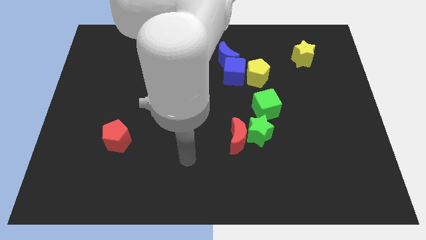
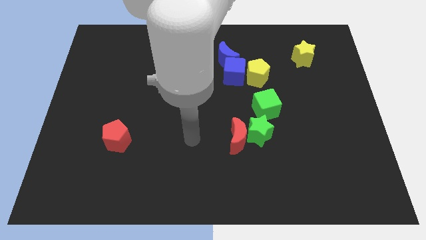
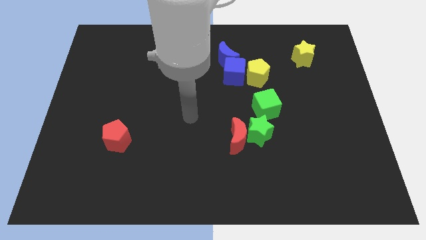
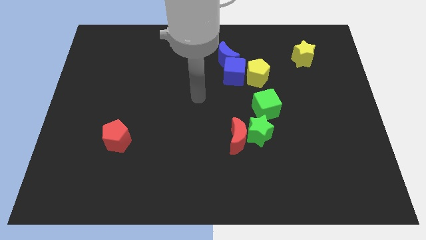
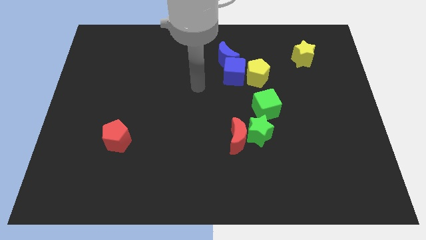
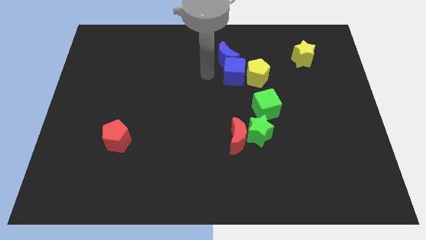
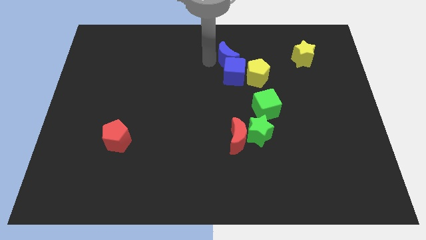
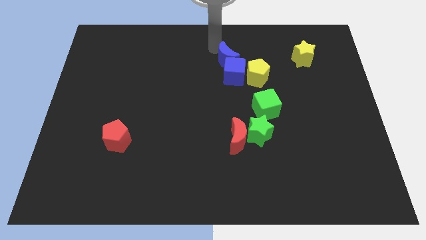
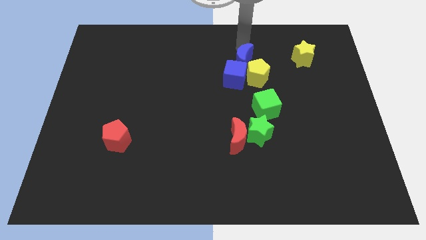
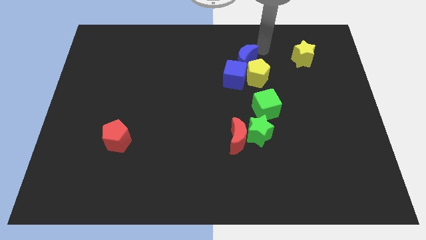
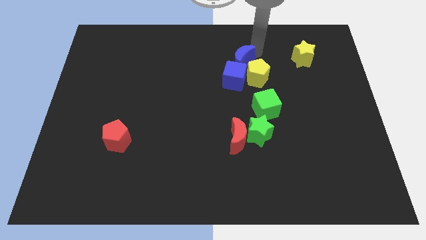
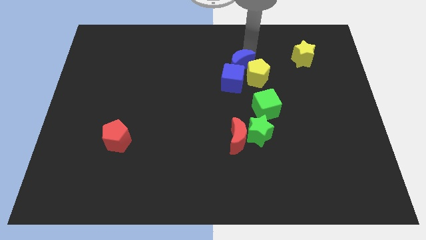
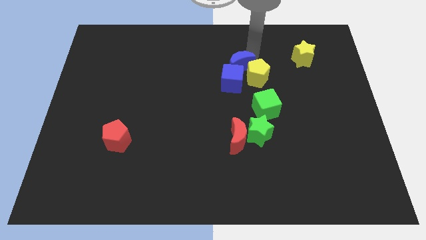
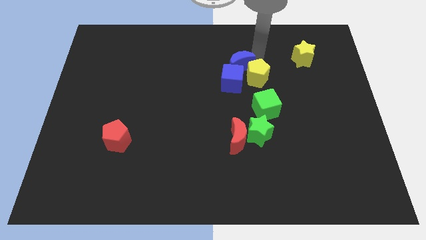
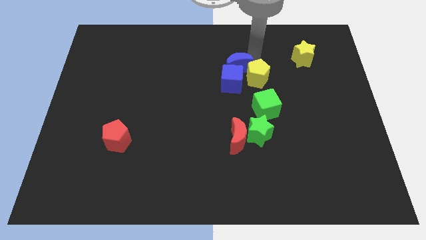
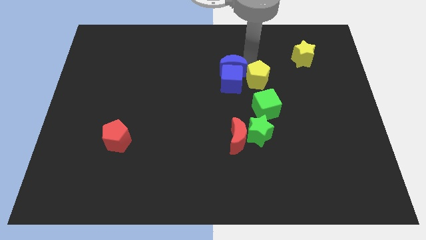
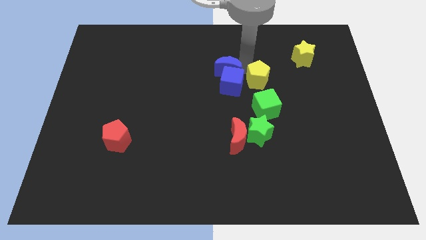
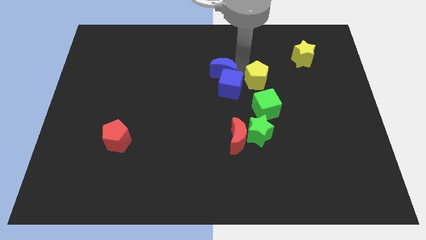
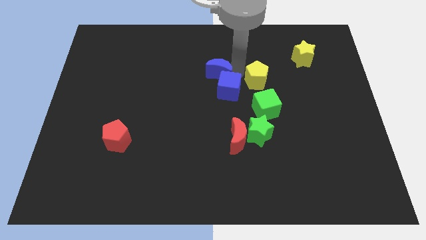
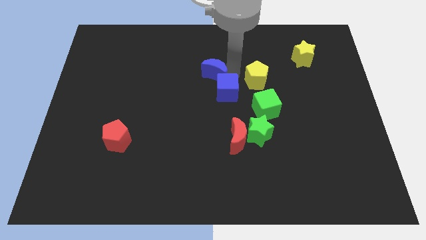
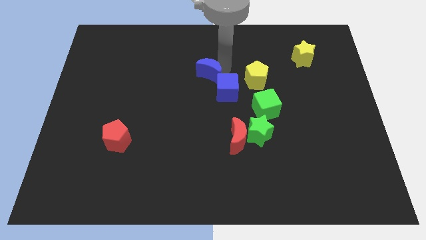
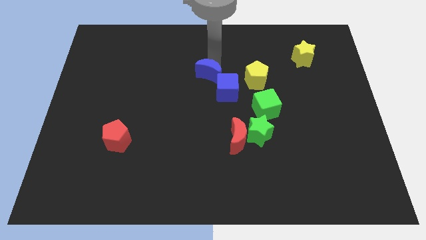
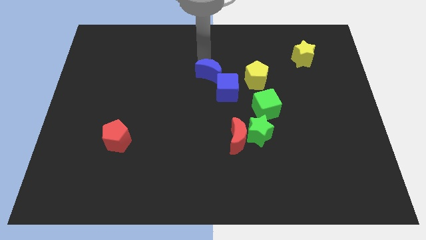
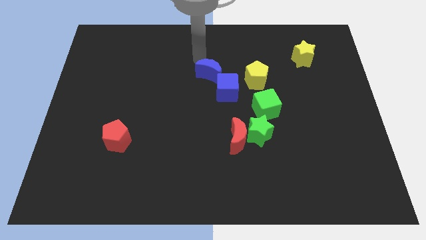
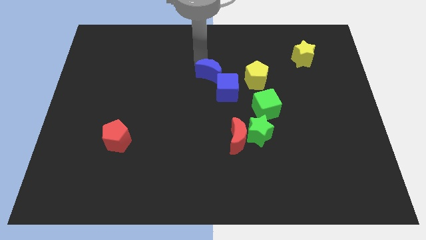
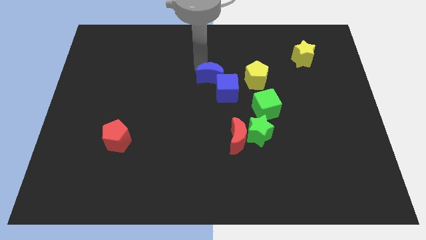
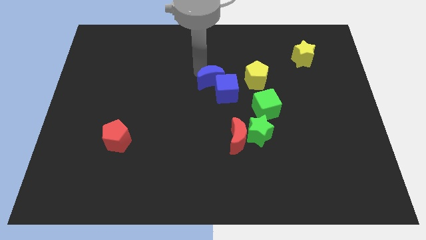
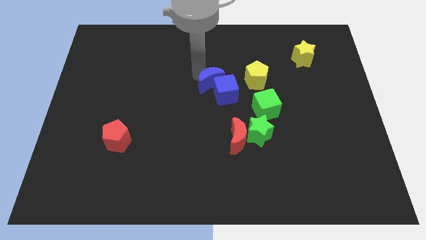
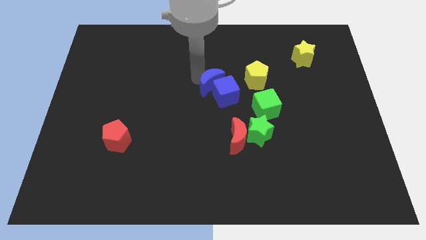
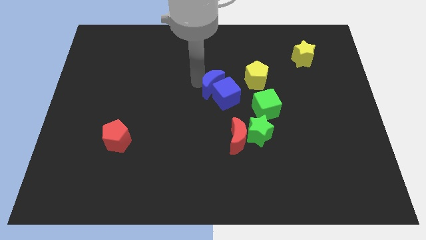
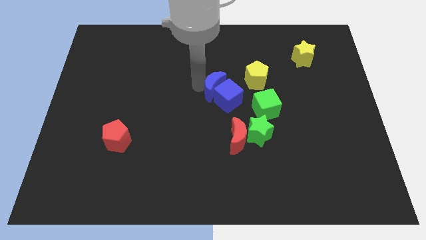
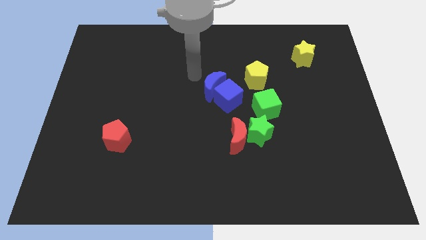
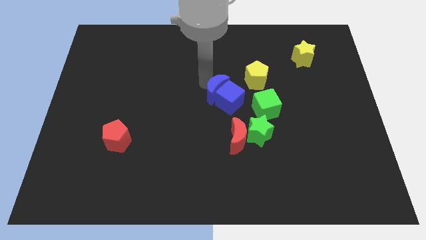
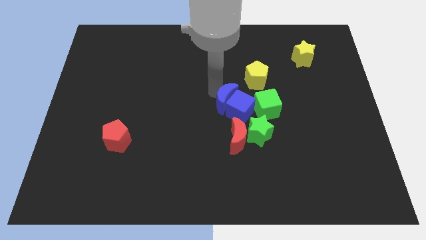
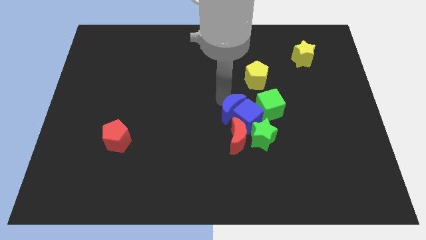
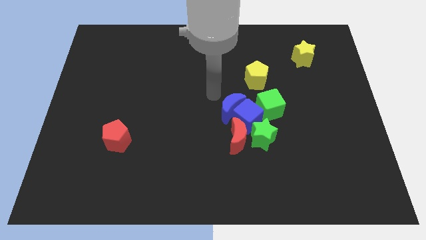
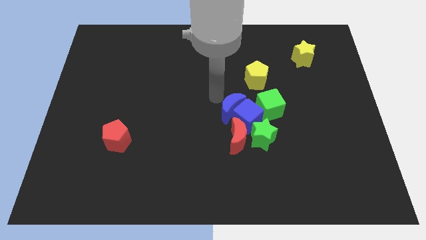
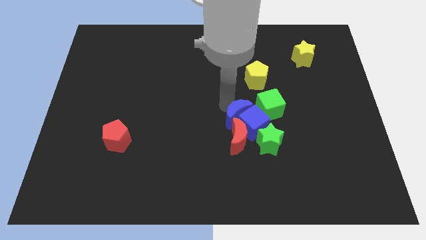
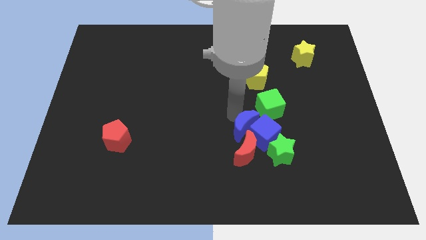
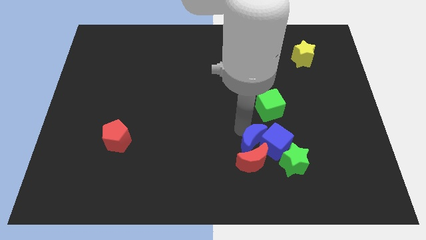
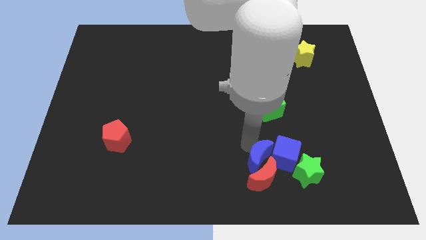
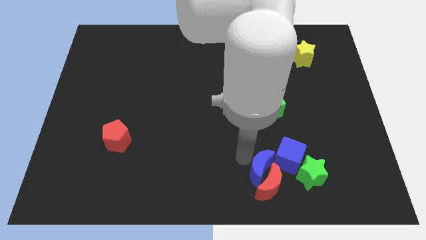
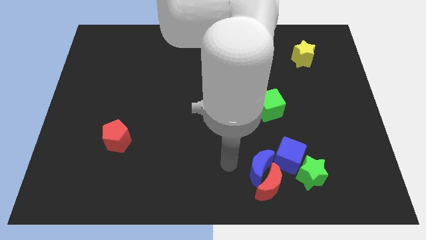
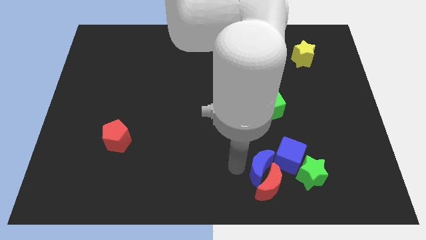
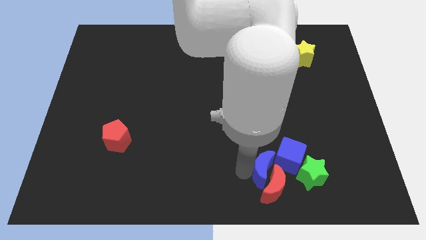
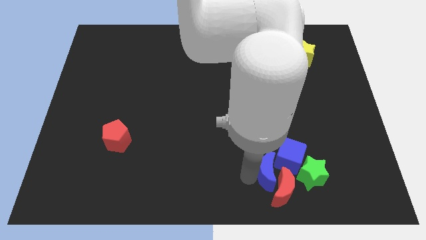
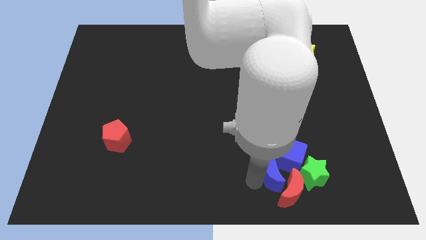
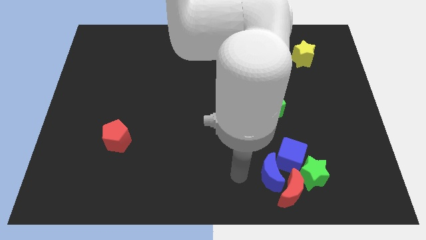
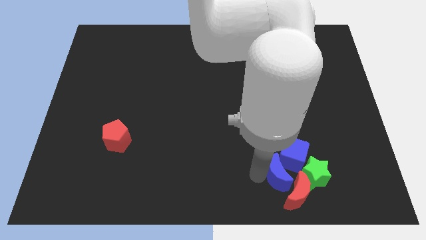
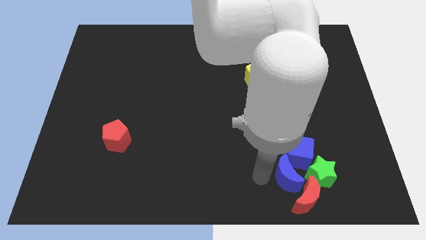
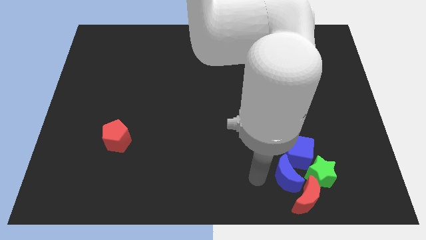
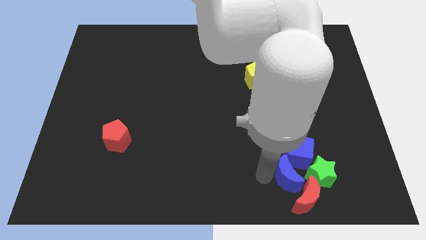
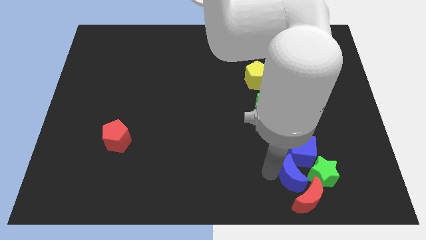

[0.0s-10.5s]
move the blue moon towards the green star

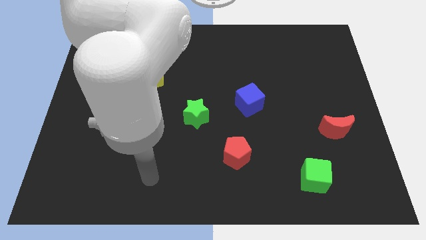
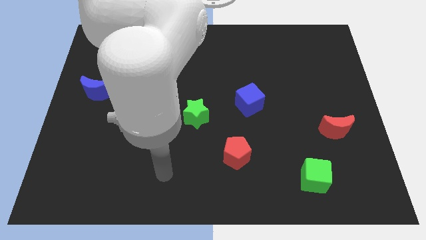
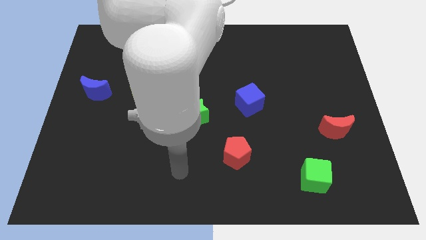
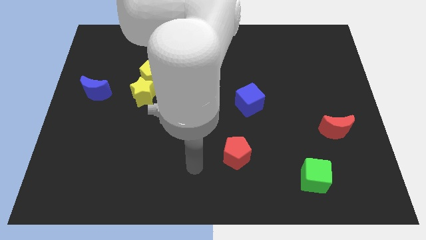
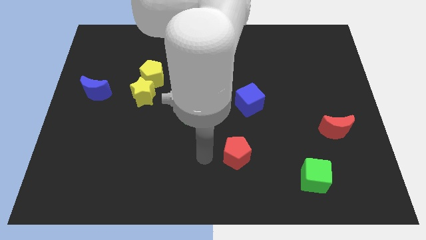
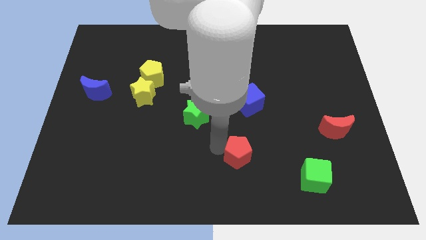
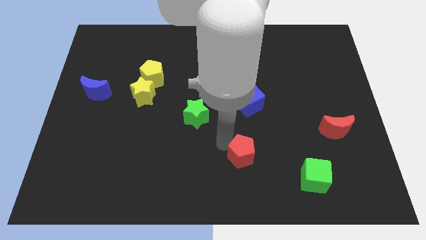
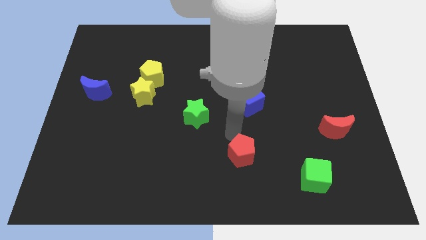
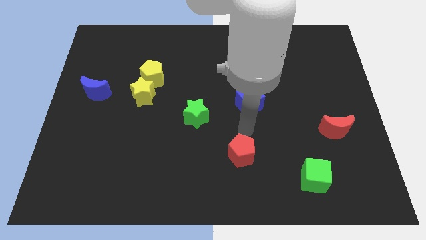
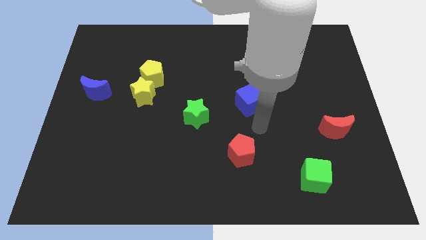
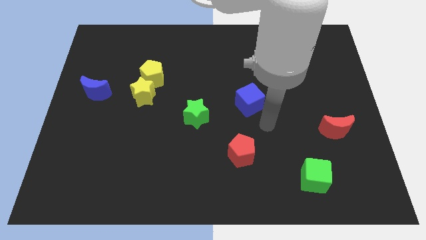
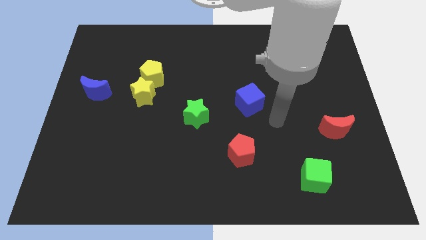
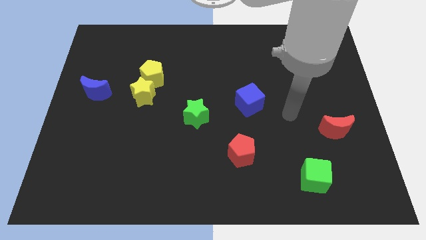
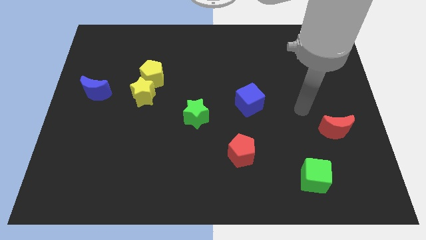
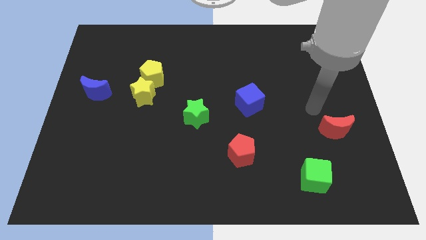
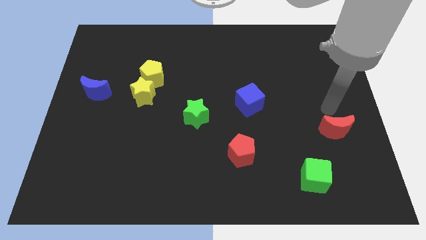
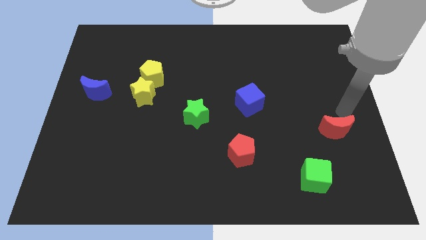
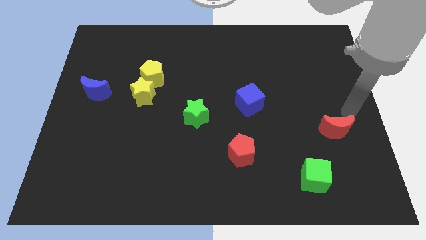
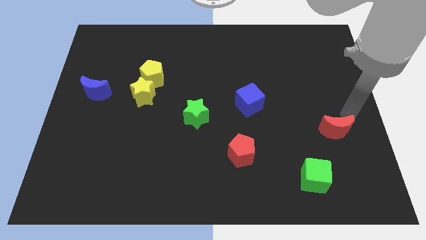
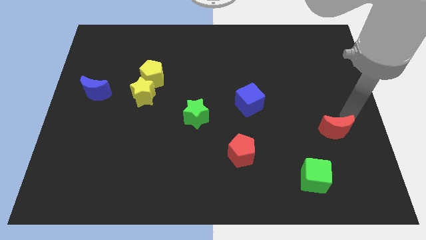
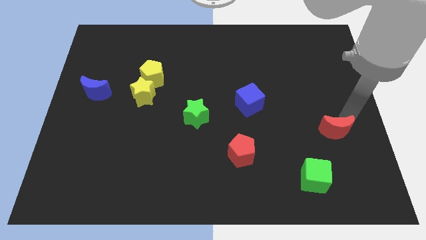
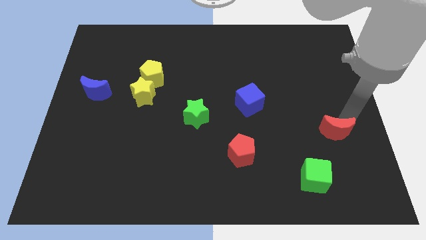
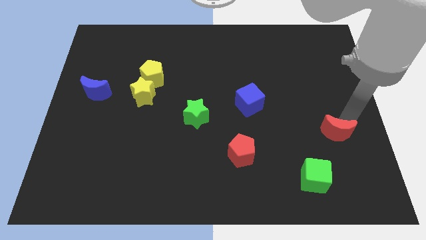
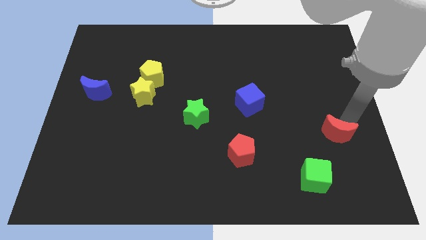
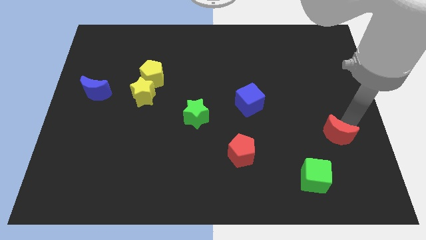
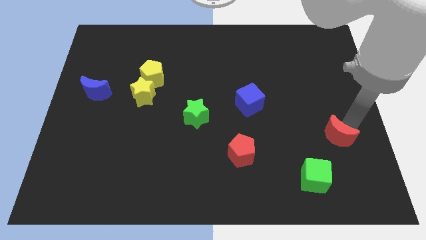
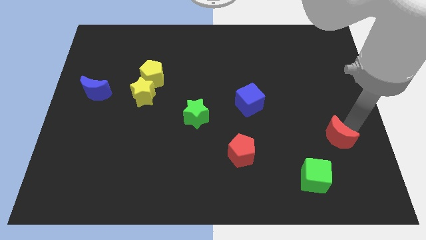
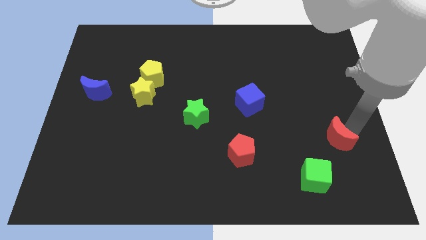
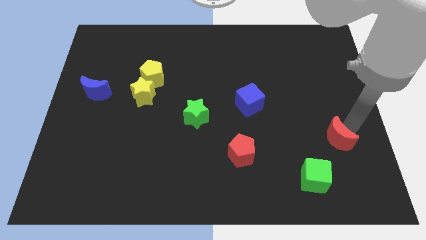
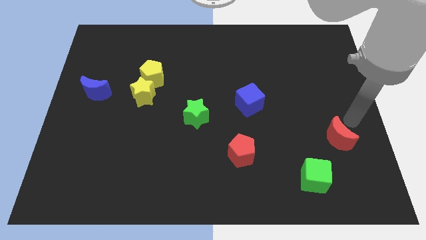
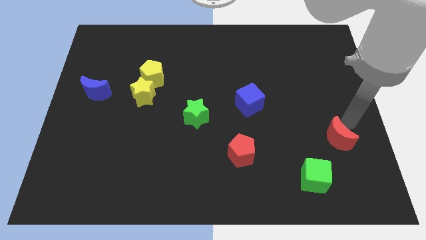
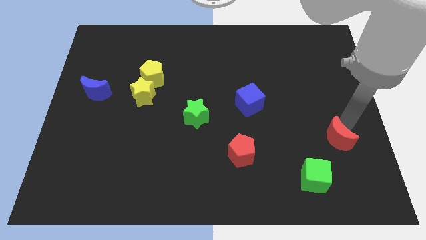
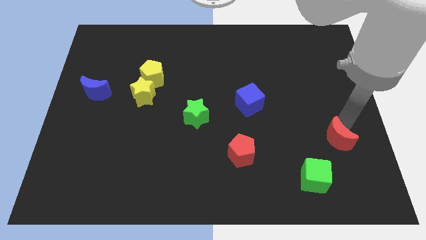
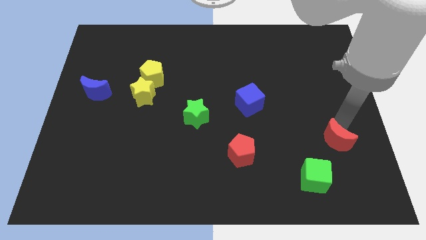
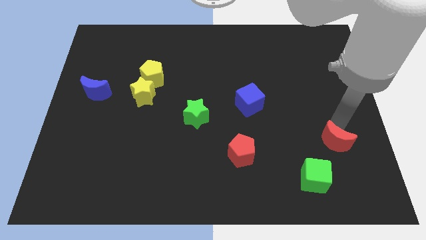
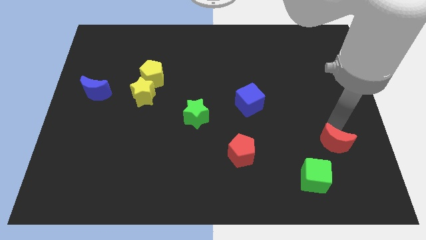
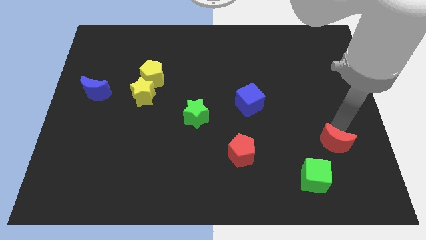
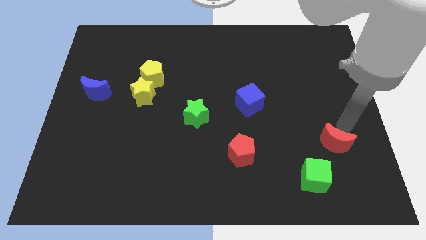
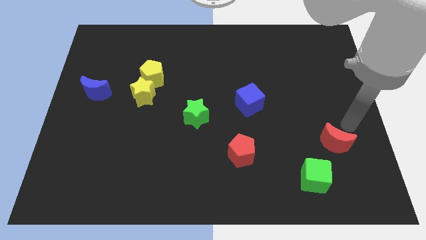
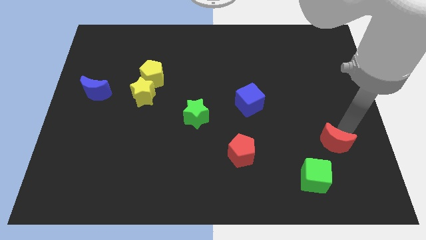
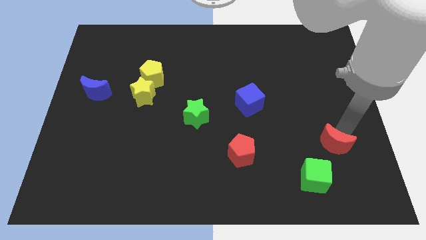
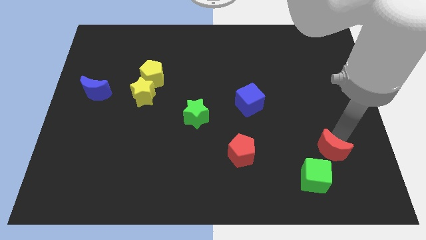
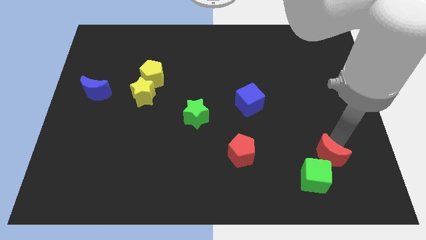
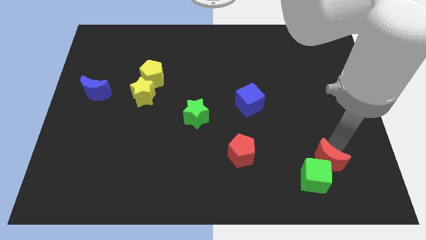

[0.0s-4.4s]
push the red moon next to the green cube
